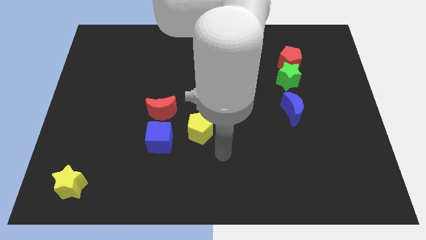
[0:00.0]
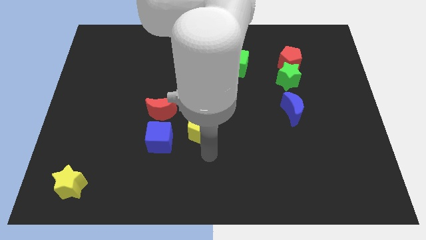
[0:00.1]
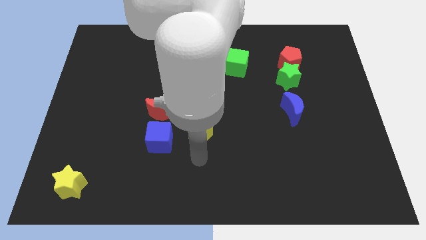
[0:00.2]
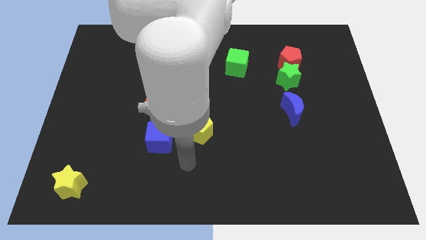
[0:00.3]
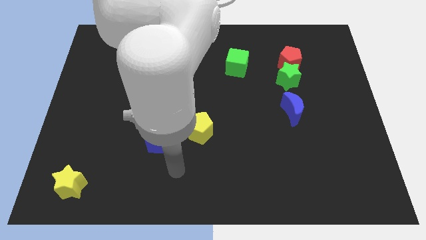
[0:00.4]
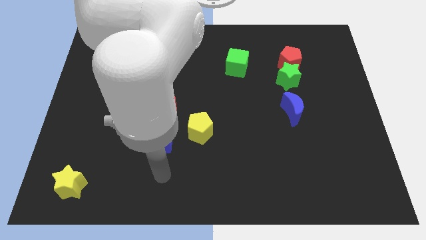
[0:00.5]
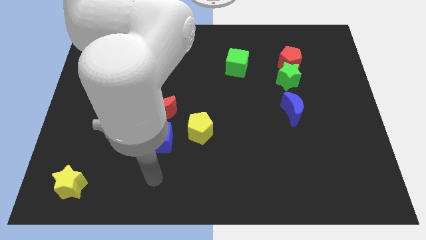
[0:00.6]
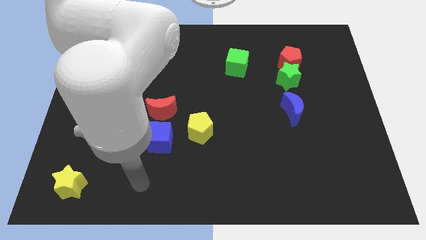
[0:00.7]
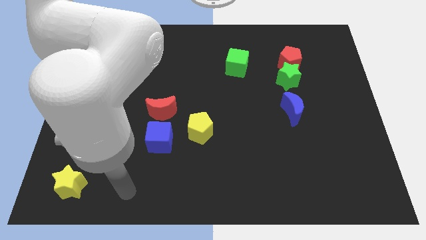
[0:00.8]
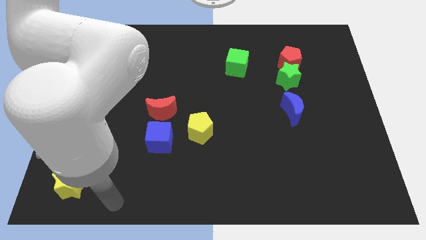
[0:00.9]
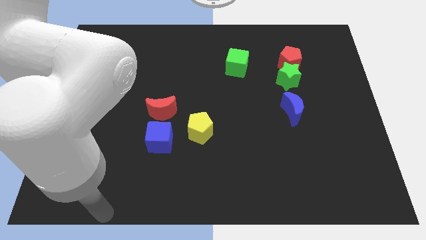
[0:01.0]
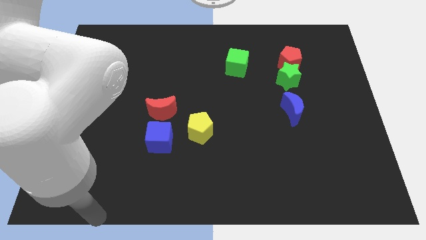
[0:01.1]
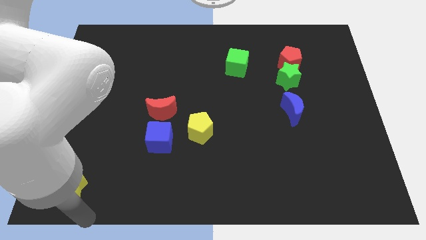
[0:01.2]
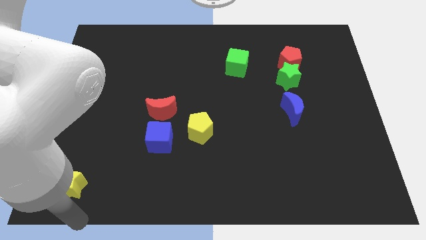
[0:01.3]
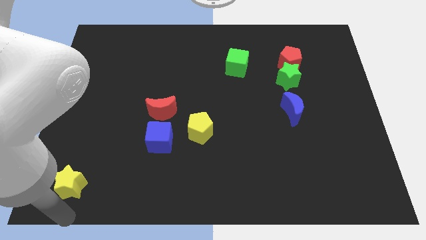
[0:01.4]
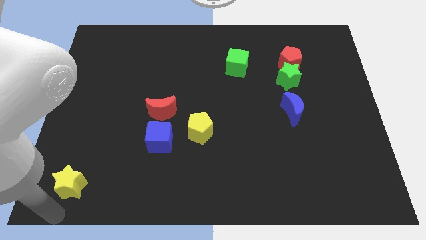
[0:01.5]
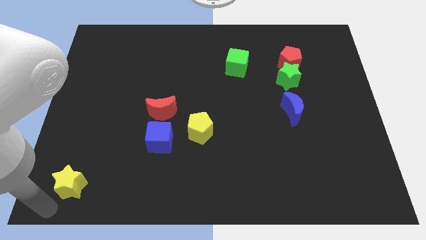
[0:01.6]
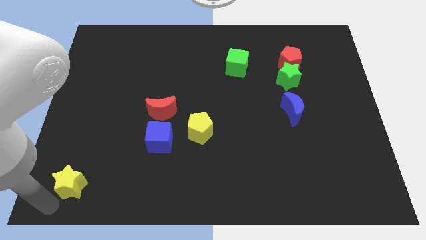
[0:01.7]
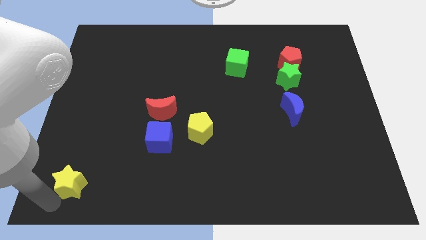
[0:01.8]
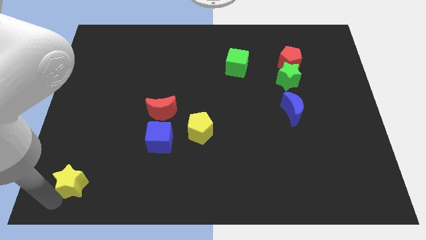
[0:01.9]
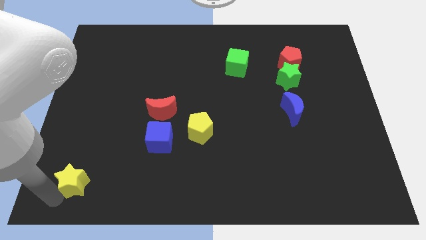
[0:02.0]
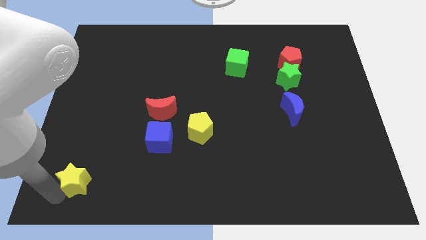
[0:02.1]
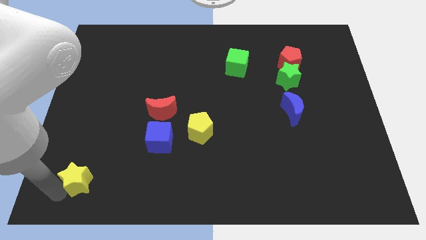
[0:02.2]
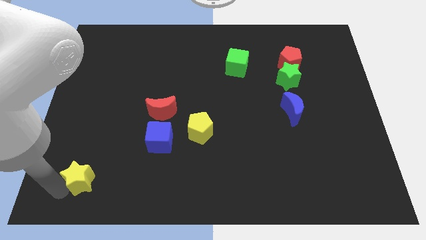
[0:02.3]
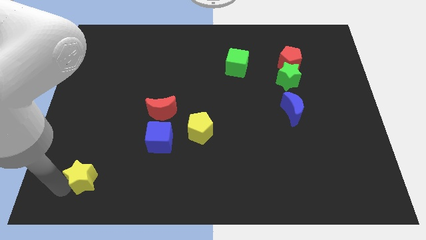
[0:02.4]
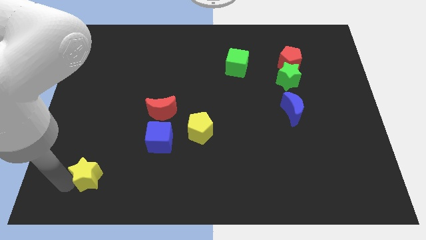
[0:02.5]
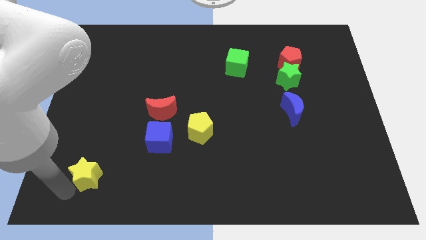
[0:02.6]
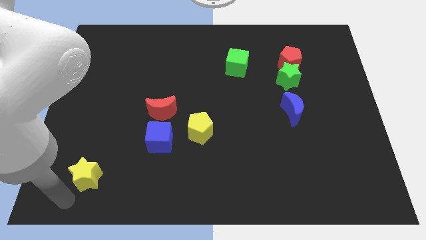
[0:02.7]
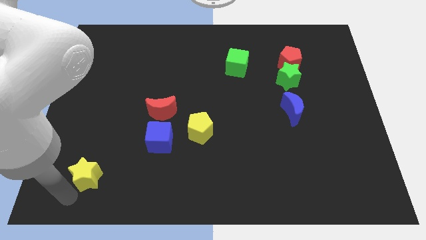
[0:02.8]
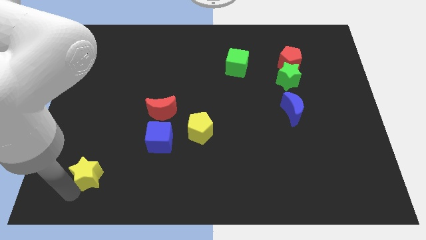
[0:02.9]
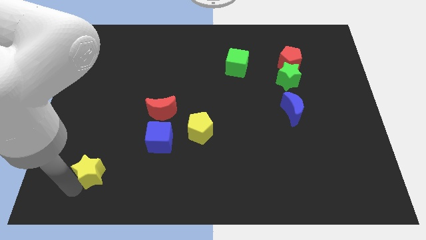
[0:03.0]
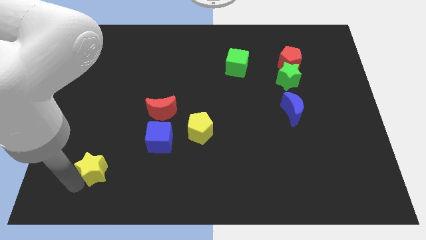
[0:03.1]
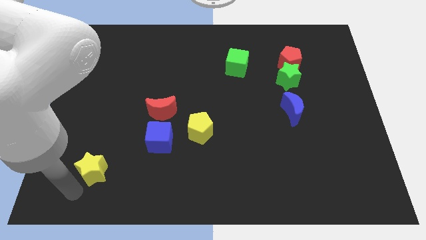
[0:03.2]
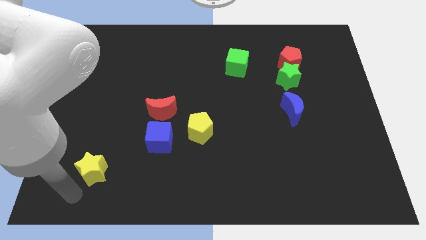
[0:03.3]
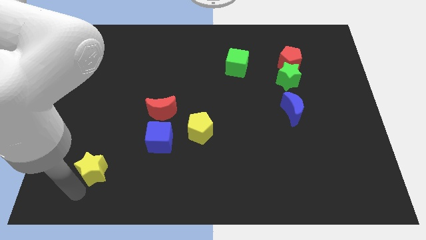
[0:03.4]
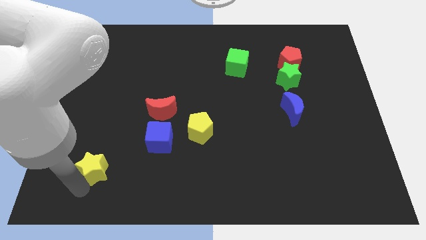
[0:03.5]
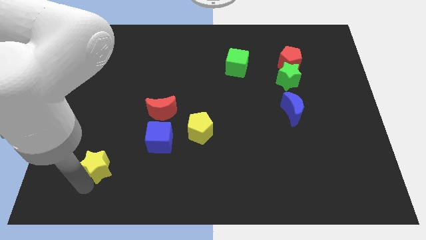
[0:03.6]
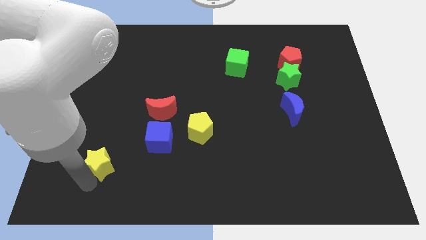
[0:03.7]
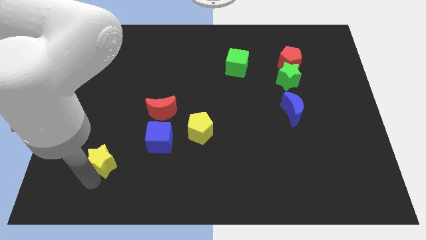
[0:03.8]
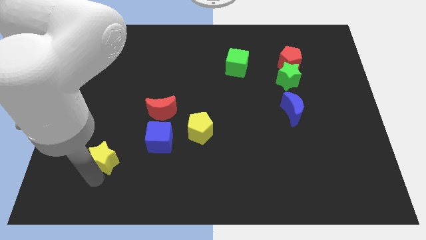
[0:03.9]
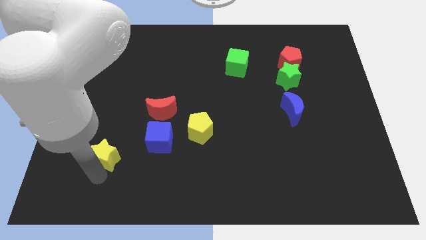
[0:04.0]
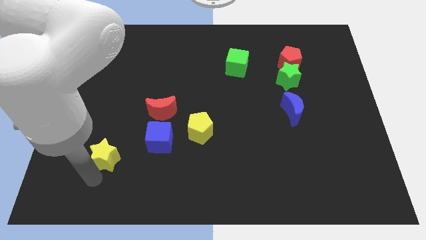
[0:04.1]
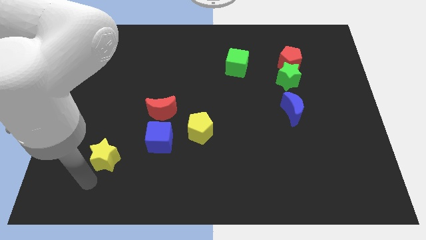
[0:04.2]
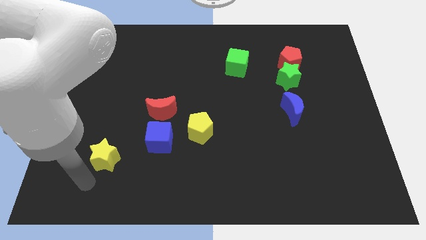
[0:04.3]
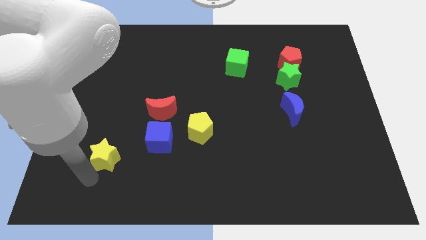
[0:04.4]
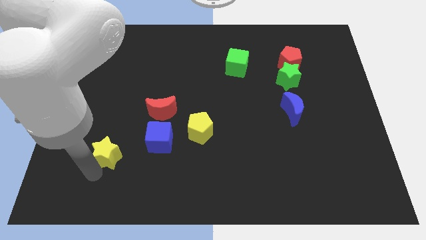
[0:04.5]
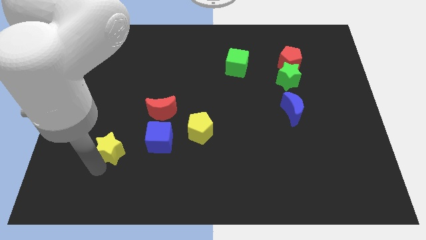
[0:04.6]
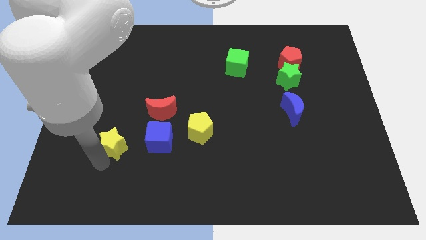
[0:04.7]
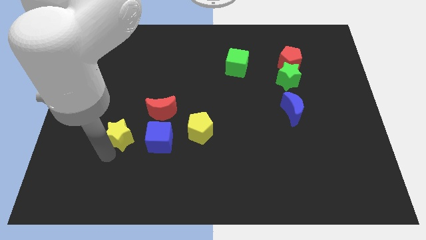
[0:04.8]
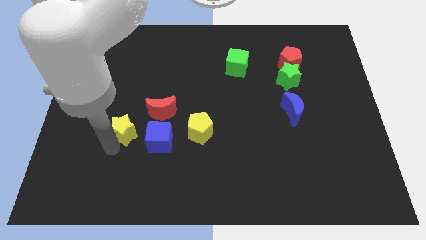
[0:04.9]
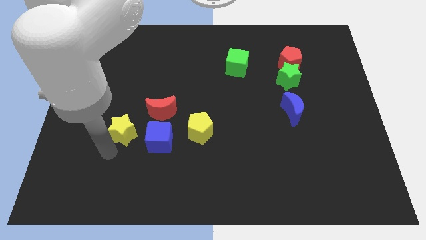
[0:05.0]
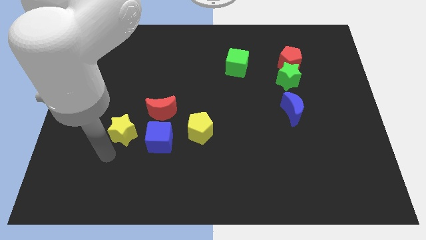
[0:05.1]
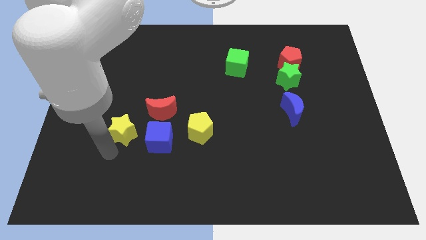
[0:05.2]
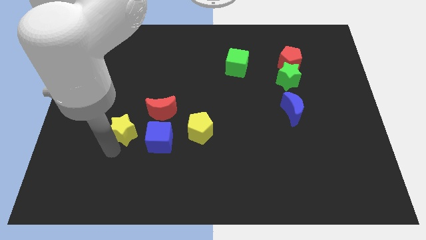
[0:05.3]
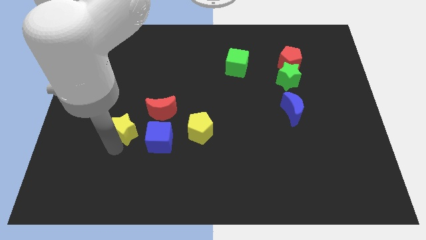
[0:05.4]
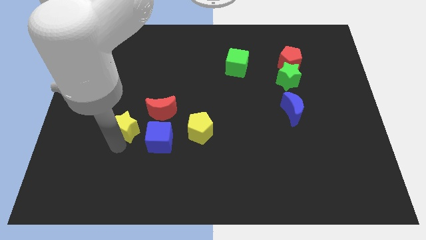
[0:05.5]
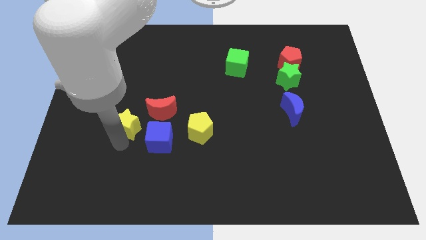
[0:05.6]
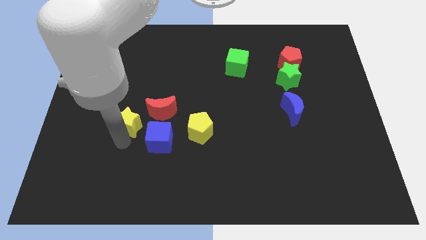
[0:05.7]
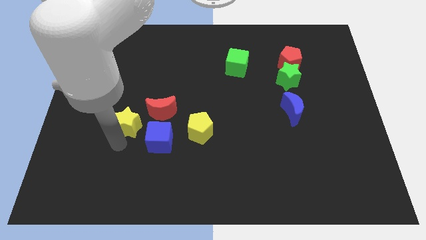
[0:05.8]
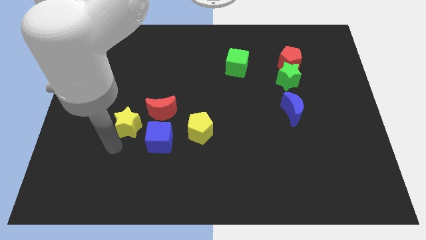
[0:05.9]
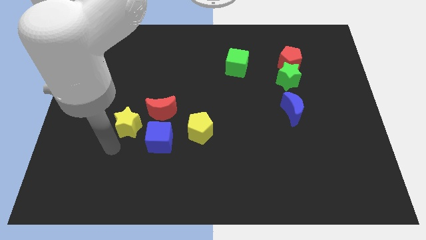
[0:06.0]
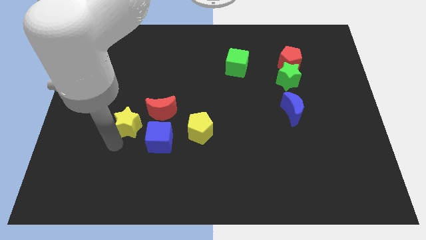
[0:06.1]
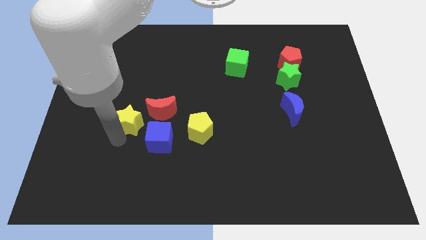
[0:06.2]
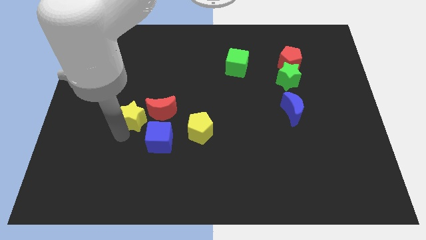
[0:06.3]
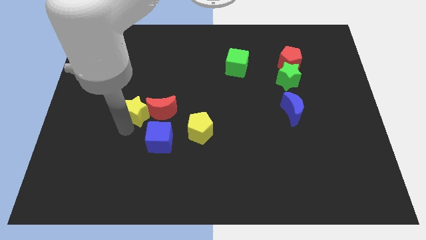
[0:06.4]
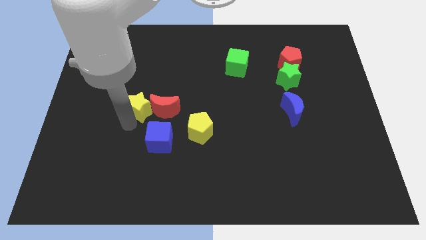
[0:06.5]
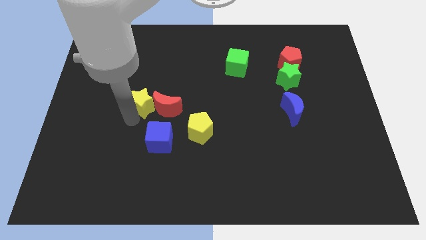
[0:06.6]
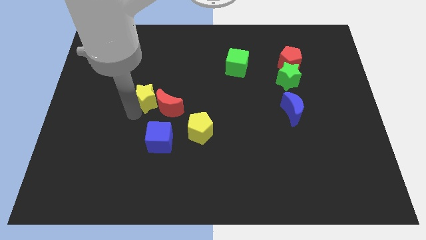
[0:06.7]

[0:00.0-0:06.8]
put the yellow star to the top side of the blue cube
